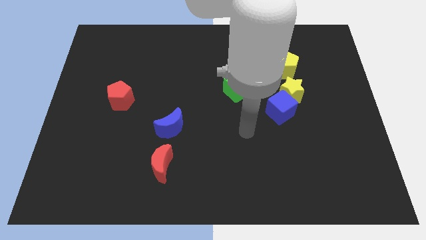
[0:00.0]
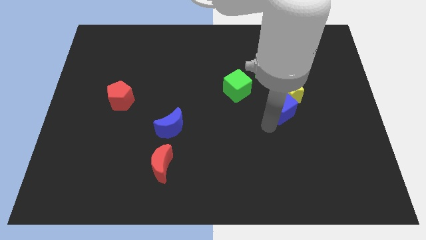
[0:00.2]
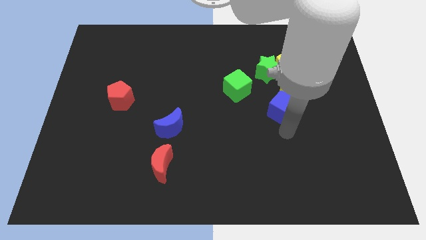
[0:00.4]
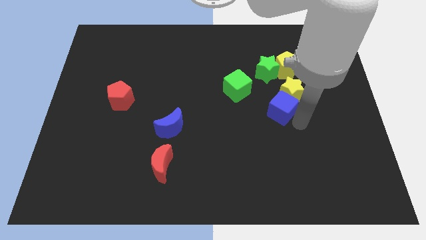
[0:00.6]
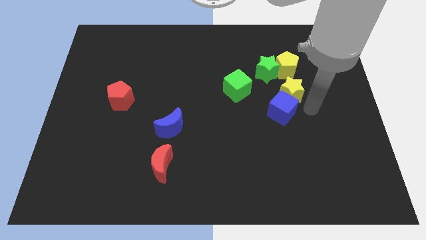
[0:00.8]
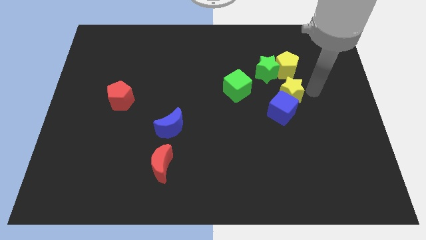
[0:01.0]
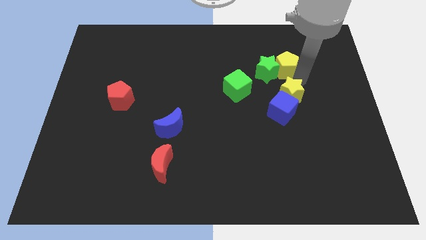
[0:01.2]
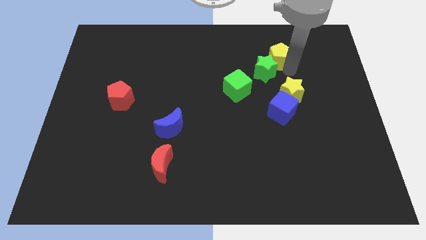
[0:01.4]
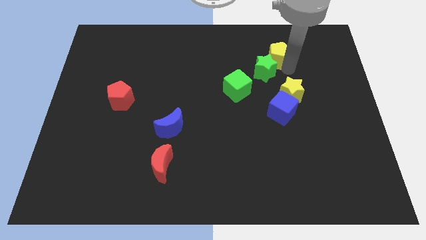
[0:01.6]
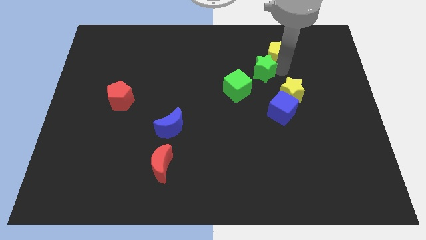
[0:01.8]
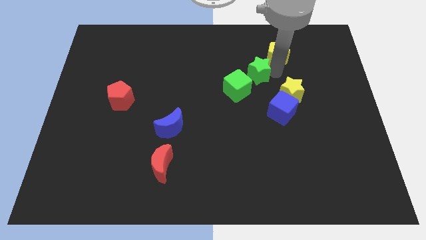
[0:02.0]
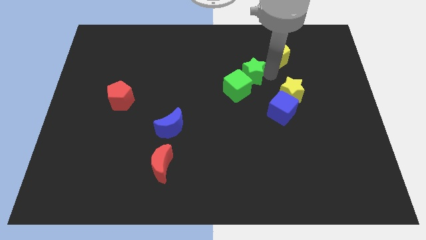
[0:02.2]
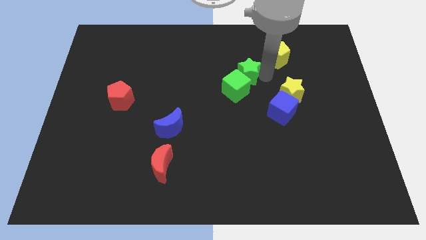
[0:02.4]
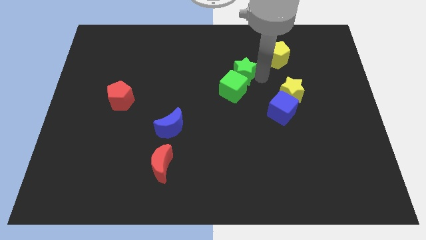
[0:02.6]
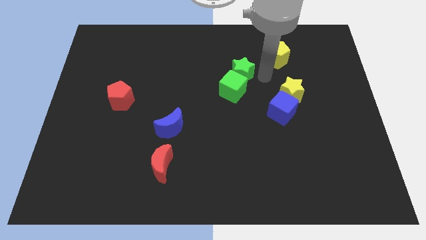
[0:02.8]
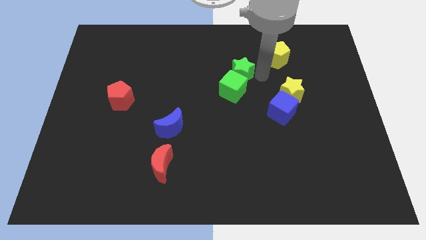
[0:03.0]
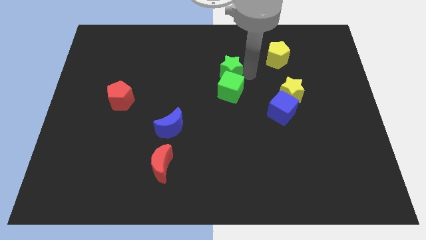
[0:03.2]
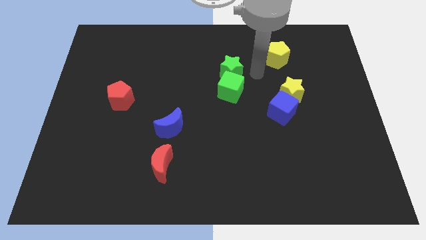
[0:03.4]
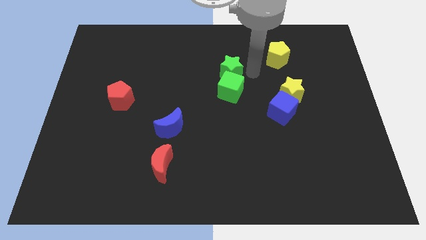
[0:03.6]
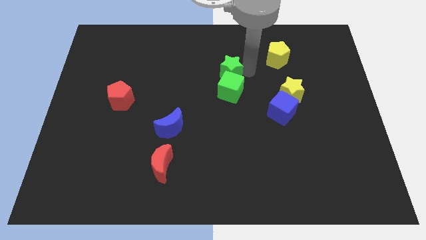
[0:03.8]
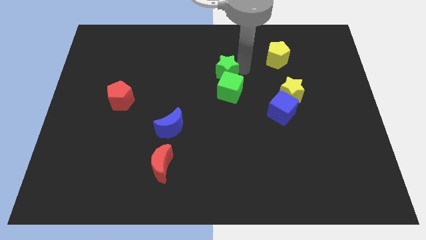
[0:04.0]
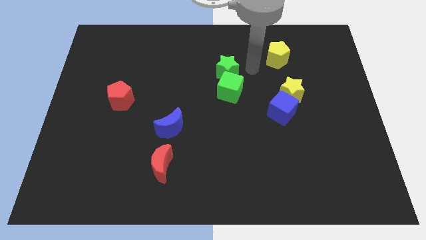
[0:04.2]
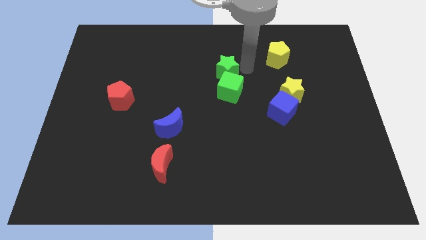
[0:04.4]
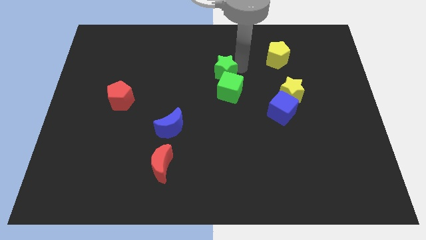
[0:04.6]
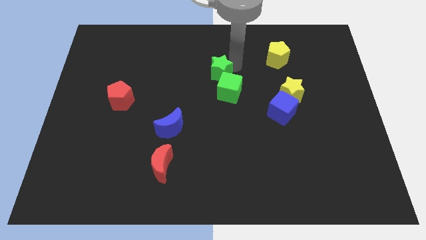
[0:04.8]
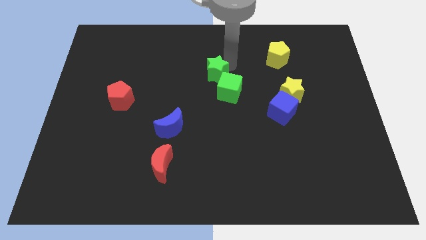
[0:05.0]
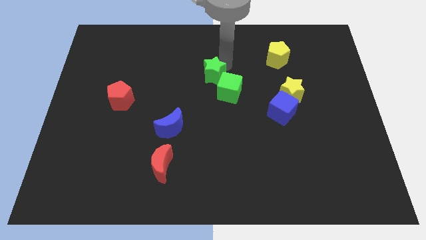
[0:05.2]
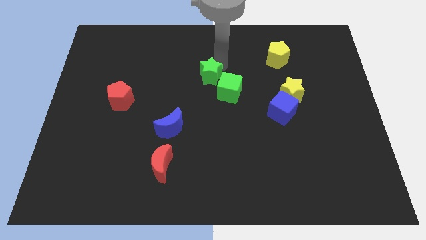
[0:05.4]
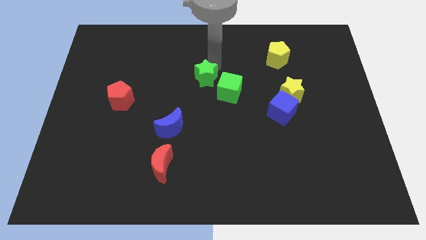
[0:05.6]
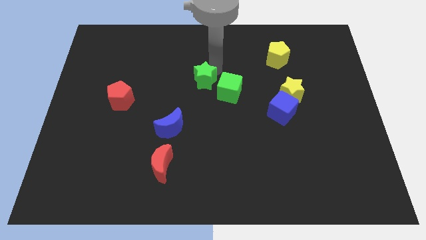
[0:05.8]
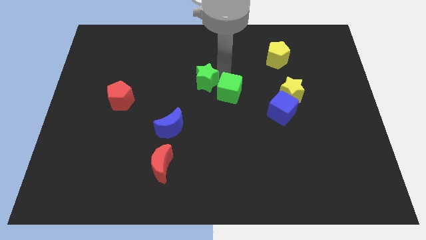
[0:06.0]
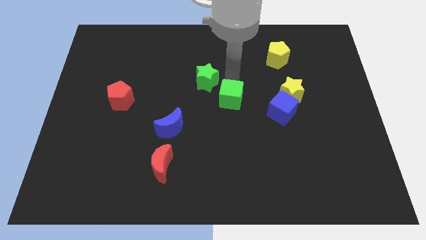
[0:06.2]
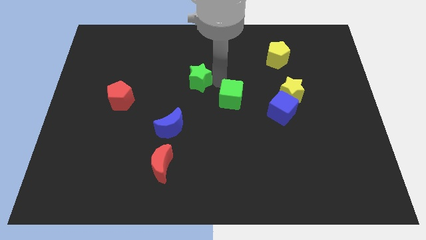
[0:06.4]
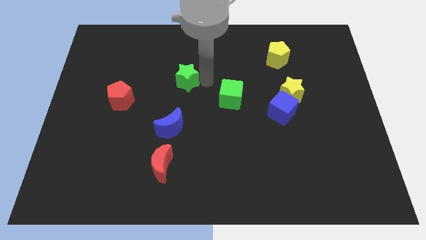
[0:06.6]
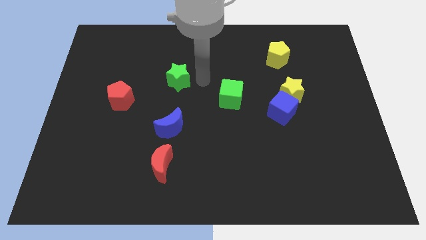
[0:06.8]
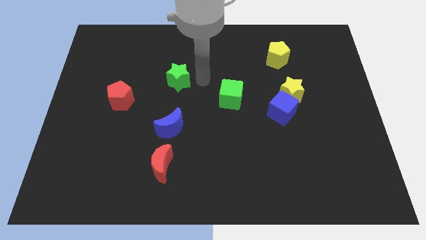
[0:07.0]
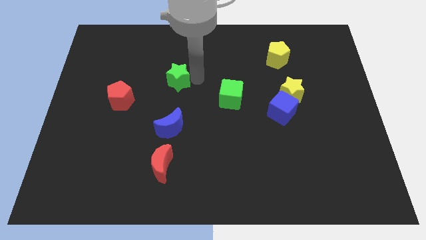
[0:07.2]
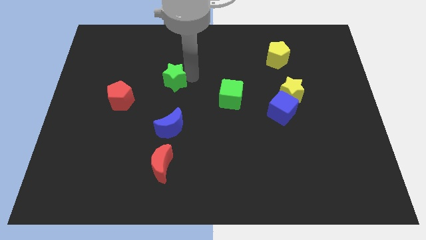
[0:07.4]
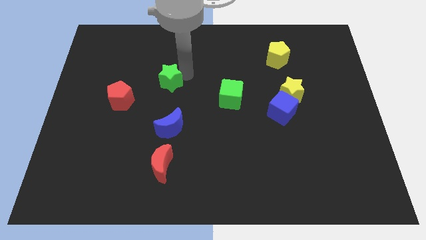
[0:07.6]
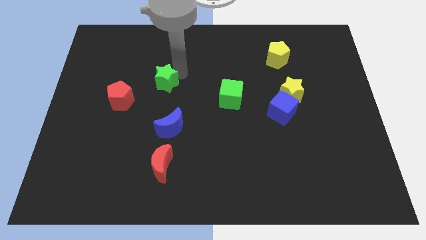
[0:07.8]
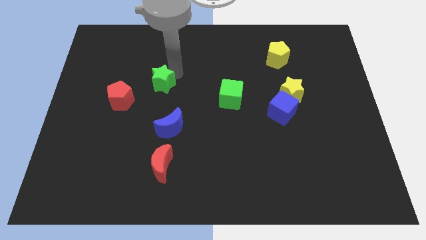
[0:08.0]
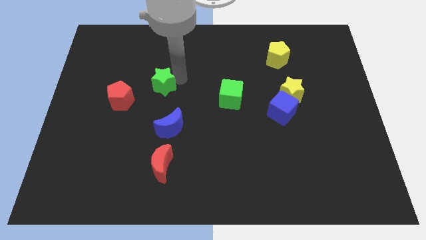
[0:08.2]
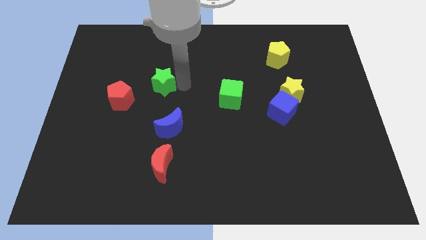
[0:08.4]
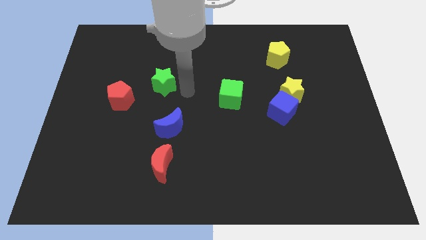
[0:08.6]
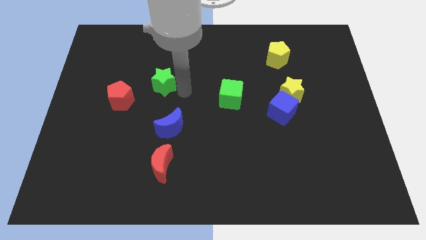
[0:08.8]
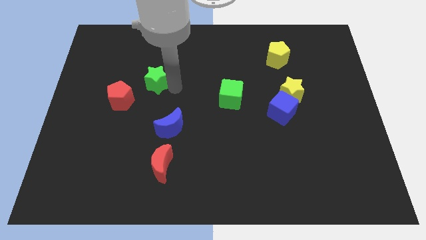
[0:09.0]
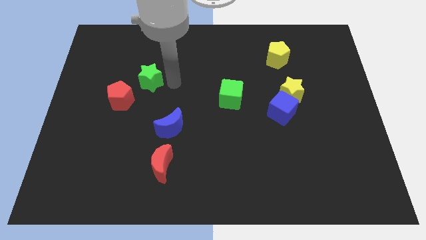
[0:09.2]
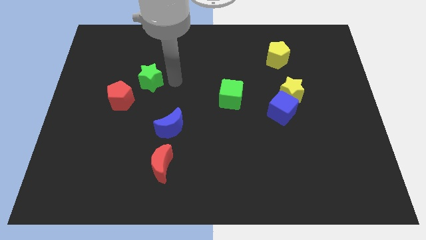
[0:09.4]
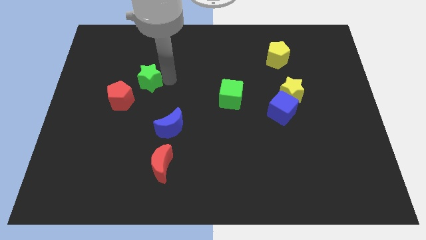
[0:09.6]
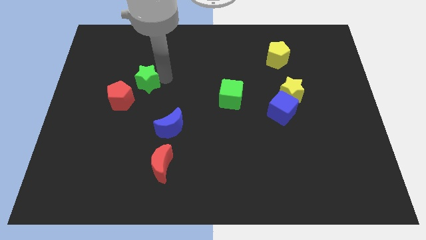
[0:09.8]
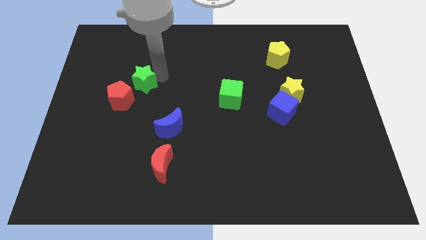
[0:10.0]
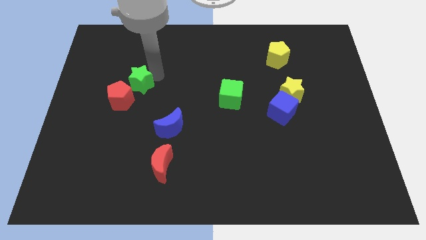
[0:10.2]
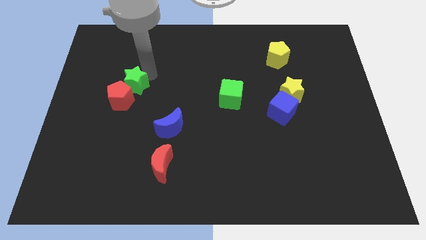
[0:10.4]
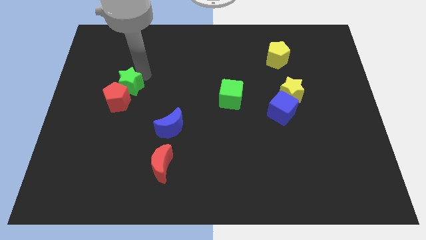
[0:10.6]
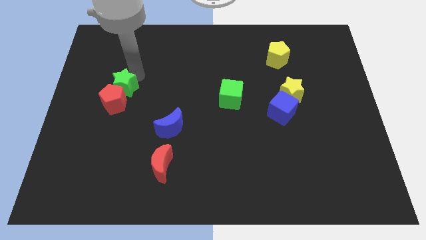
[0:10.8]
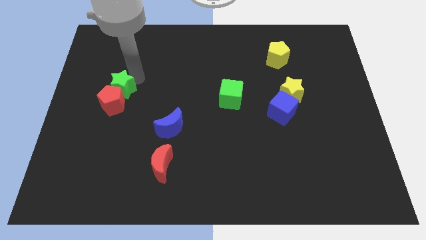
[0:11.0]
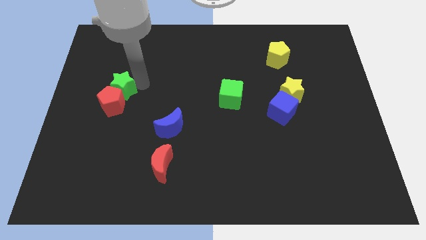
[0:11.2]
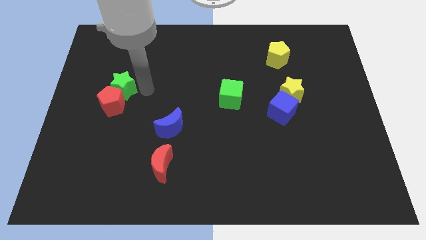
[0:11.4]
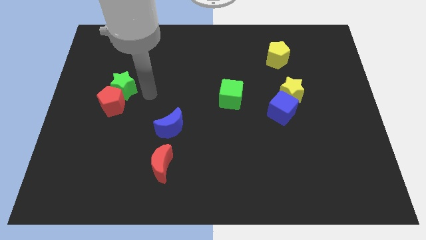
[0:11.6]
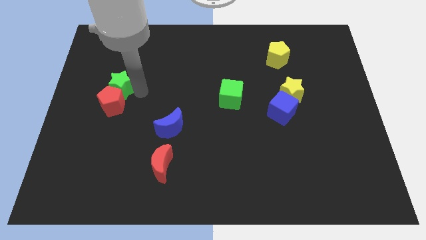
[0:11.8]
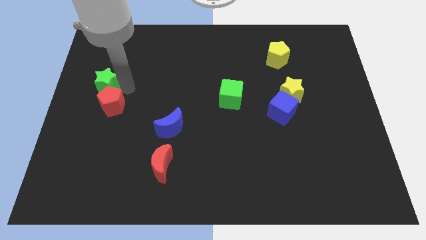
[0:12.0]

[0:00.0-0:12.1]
slide the green star to the left side

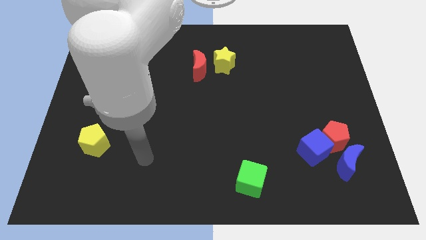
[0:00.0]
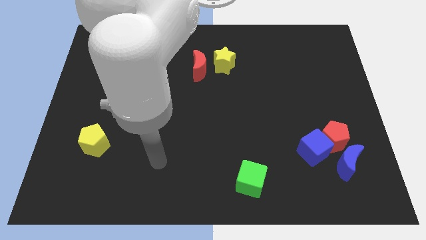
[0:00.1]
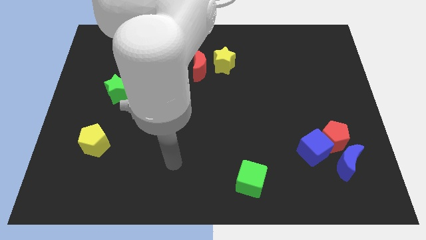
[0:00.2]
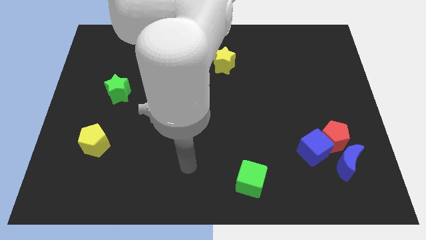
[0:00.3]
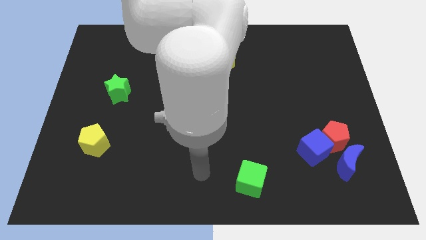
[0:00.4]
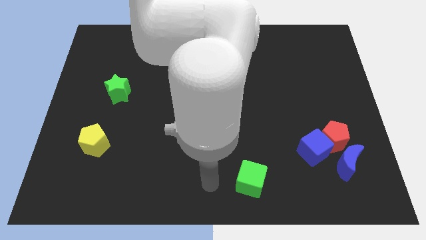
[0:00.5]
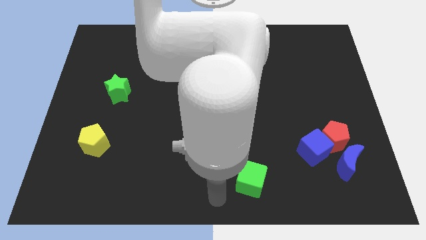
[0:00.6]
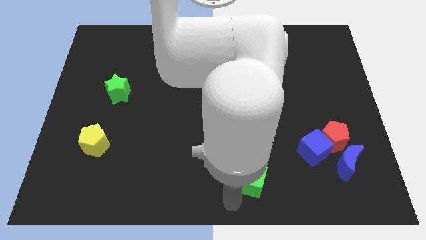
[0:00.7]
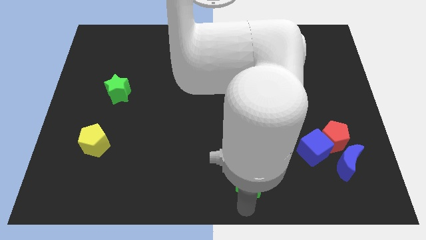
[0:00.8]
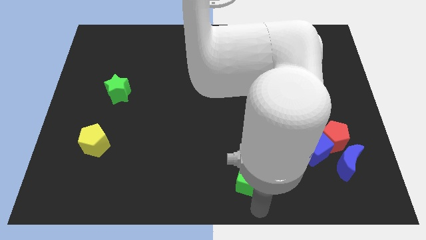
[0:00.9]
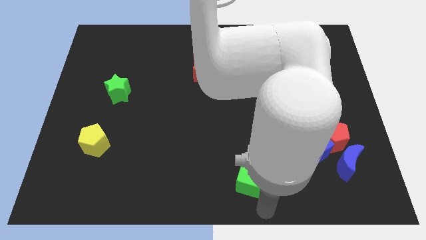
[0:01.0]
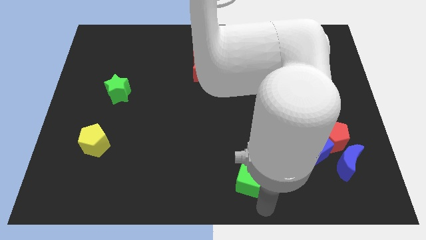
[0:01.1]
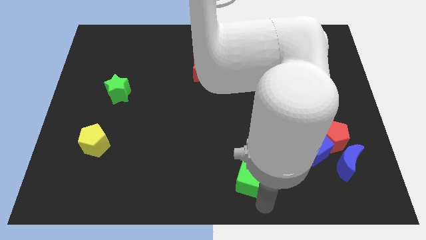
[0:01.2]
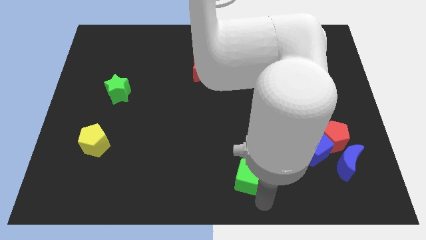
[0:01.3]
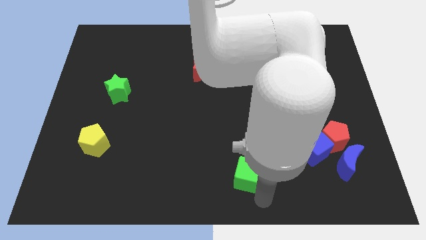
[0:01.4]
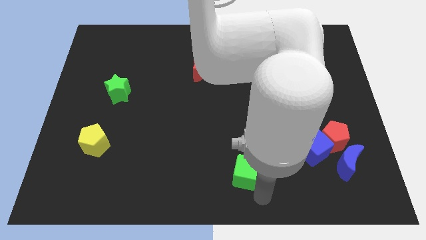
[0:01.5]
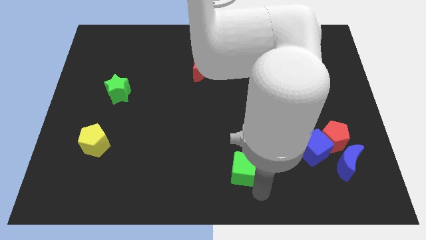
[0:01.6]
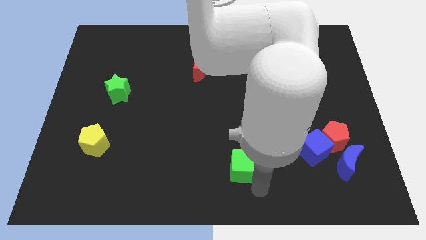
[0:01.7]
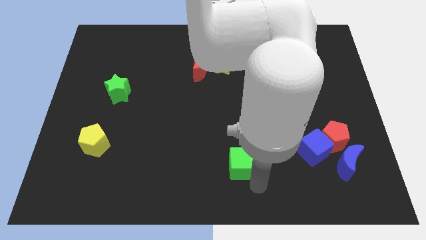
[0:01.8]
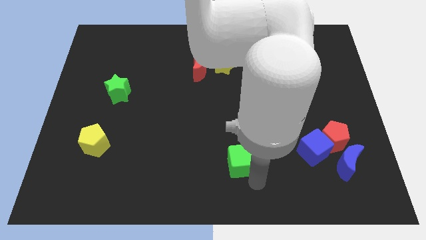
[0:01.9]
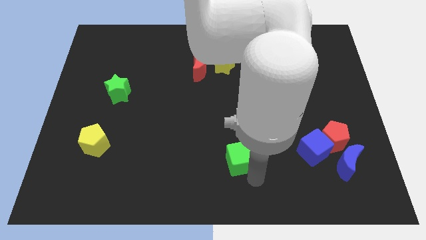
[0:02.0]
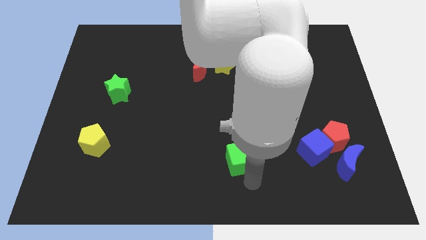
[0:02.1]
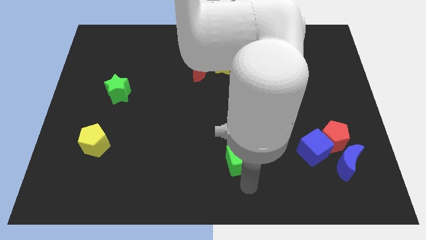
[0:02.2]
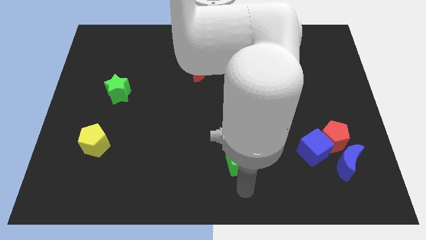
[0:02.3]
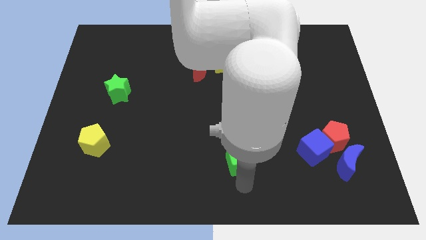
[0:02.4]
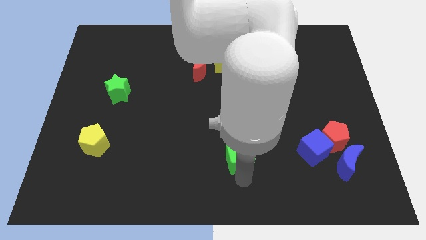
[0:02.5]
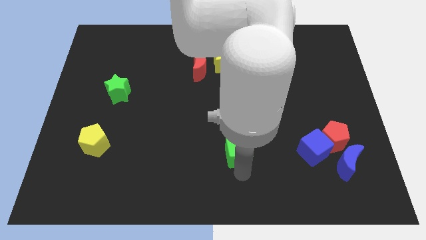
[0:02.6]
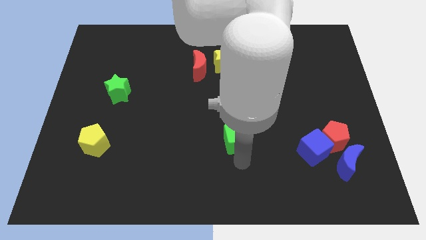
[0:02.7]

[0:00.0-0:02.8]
put the green cube to the center of the board
